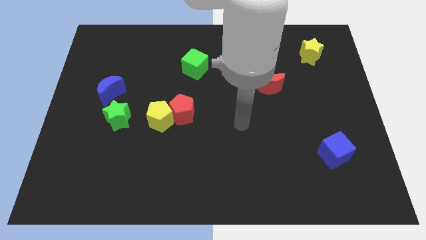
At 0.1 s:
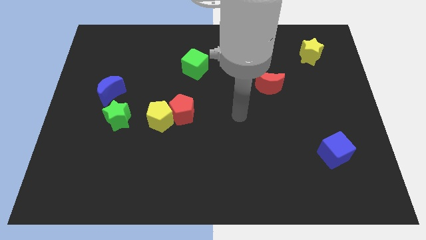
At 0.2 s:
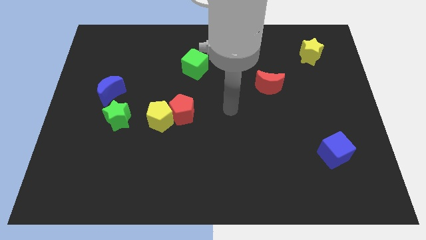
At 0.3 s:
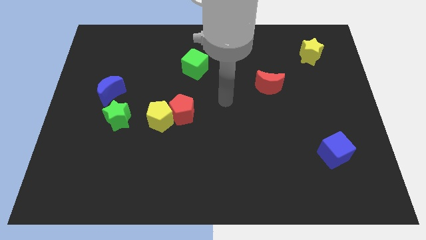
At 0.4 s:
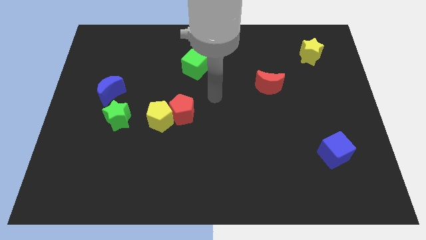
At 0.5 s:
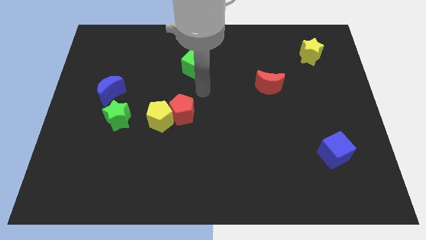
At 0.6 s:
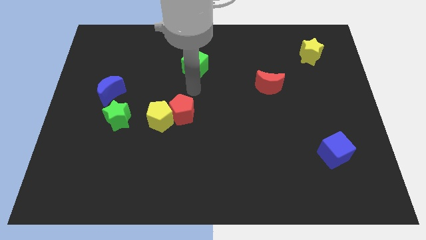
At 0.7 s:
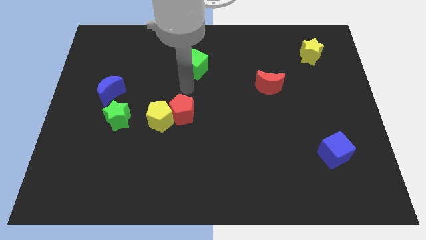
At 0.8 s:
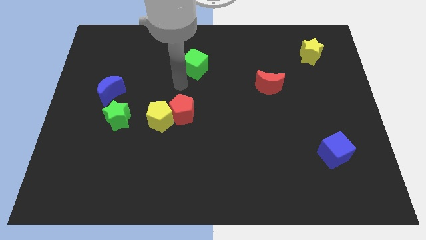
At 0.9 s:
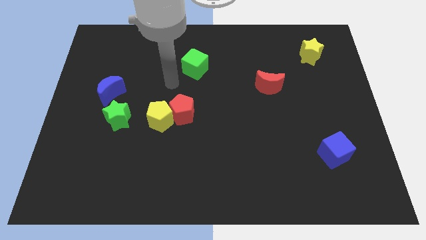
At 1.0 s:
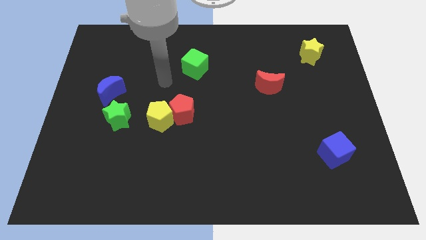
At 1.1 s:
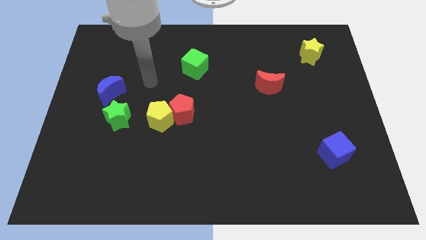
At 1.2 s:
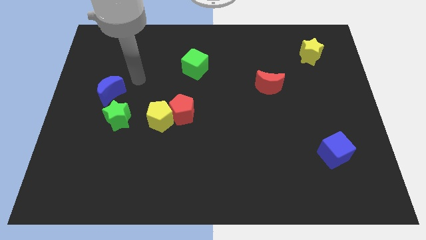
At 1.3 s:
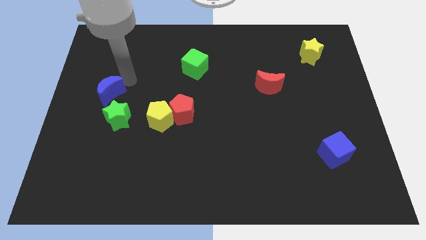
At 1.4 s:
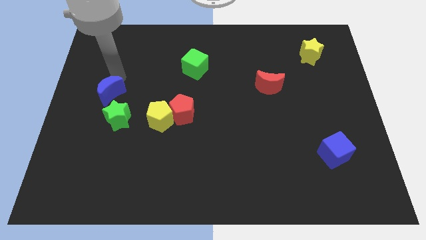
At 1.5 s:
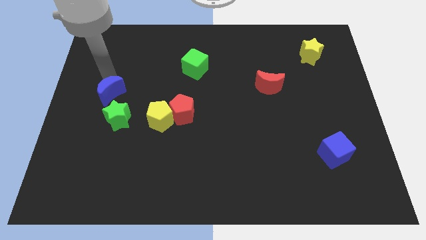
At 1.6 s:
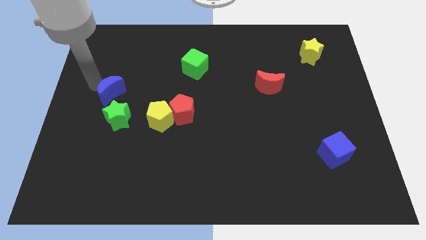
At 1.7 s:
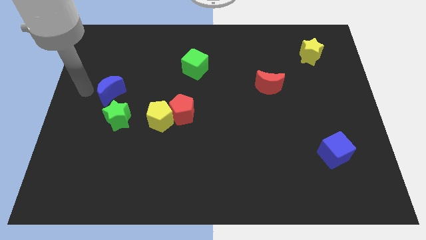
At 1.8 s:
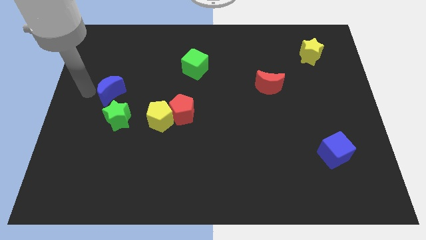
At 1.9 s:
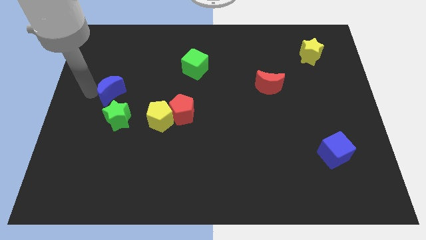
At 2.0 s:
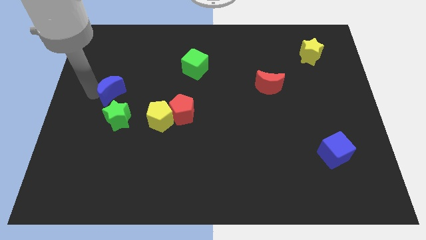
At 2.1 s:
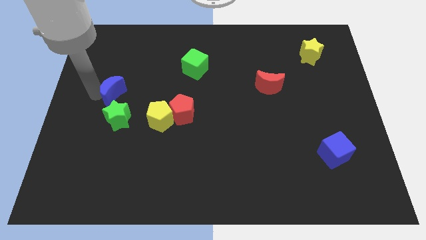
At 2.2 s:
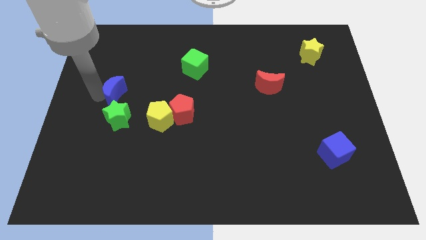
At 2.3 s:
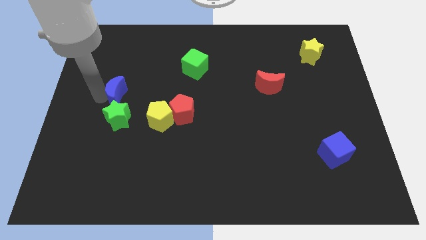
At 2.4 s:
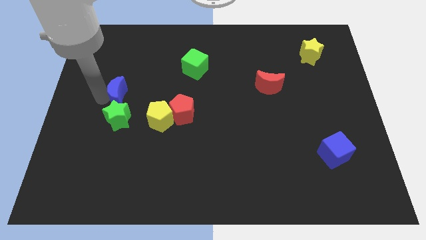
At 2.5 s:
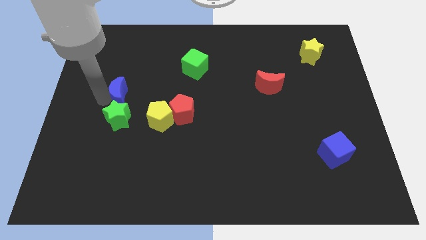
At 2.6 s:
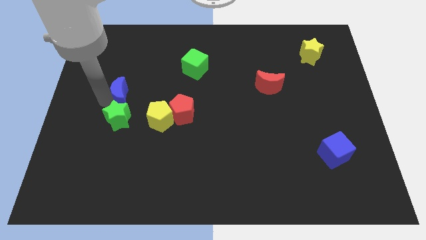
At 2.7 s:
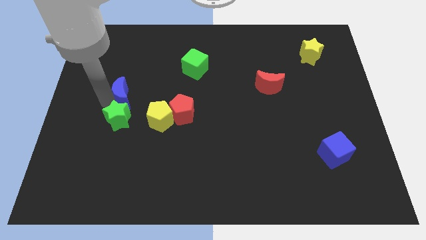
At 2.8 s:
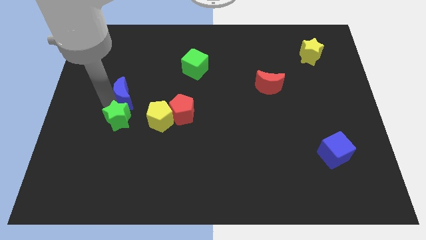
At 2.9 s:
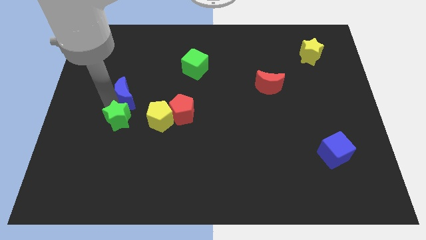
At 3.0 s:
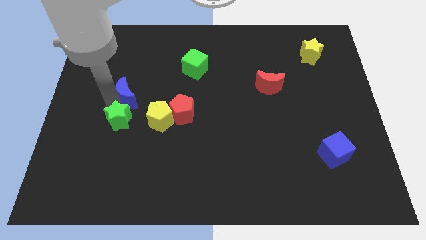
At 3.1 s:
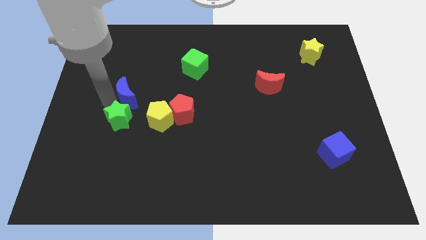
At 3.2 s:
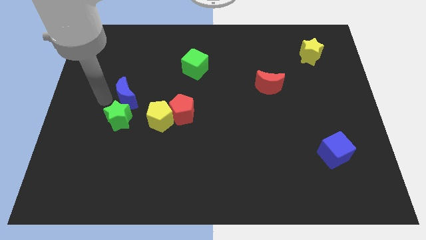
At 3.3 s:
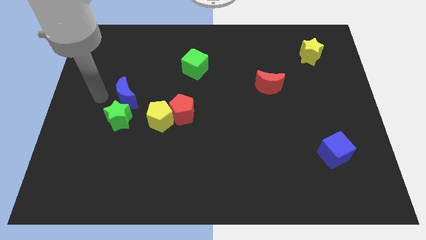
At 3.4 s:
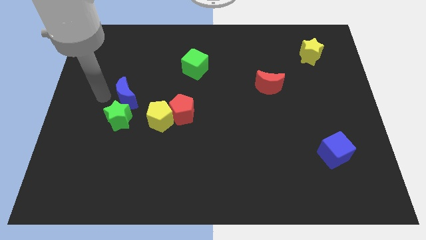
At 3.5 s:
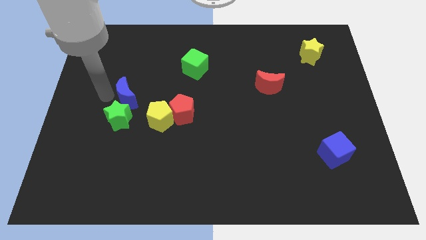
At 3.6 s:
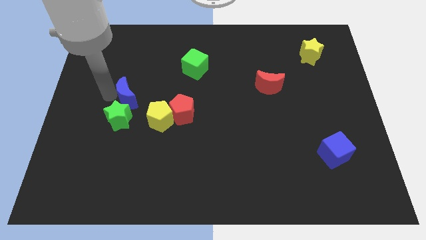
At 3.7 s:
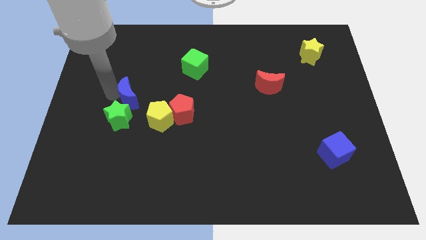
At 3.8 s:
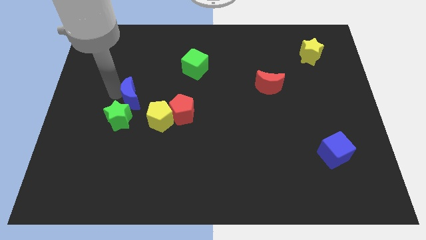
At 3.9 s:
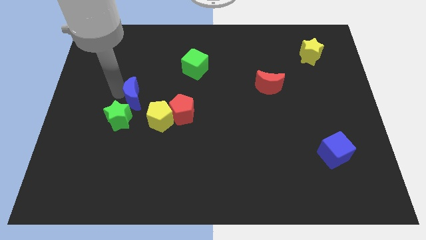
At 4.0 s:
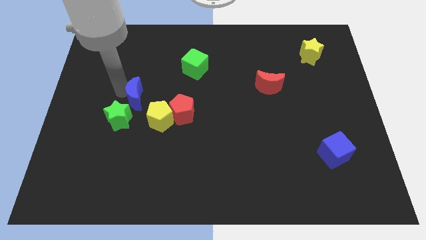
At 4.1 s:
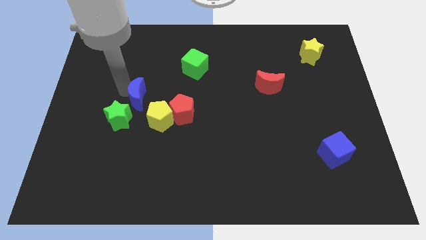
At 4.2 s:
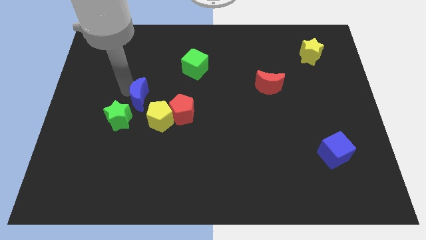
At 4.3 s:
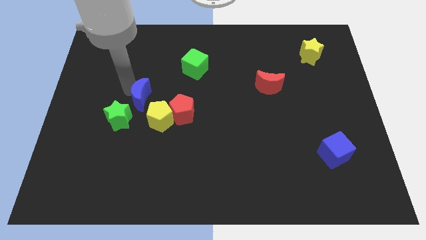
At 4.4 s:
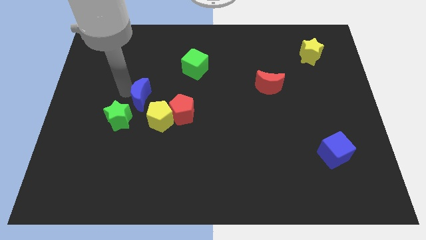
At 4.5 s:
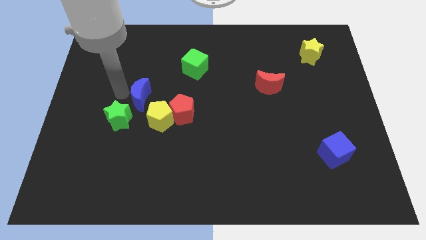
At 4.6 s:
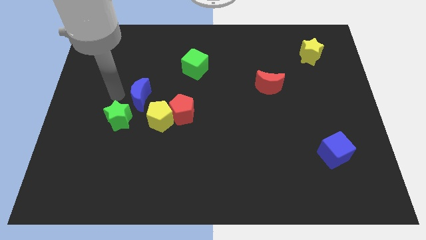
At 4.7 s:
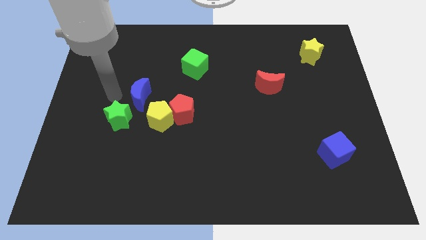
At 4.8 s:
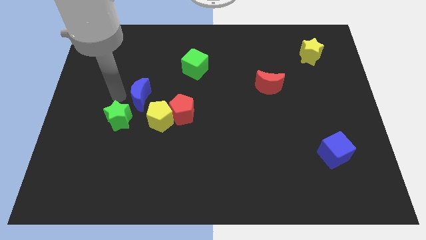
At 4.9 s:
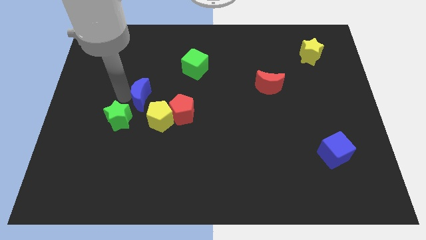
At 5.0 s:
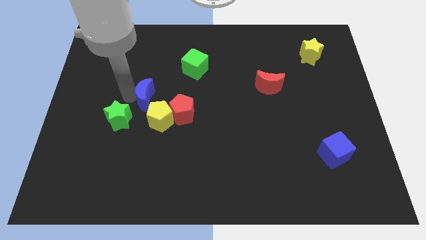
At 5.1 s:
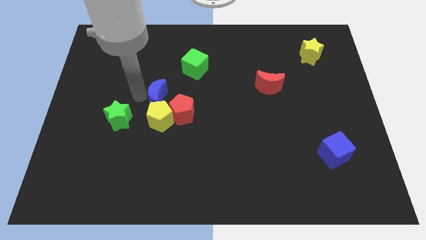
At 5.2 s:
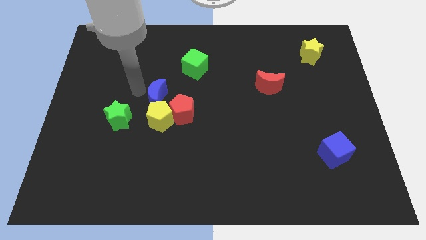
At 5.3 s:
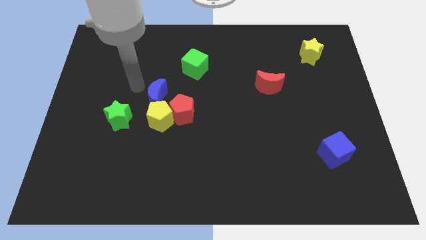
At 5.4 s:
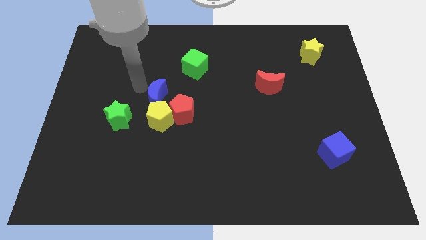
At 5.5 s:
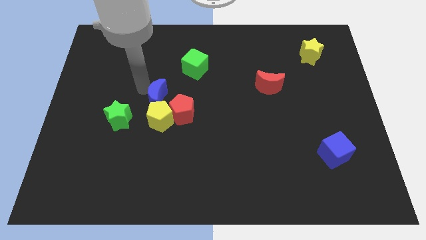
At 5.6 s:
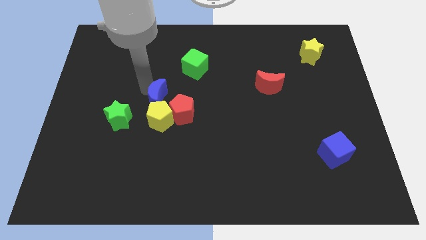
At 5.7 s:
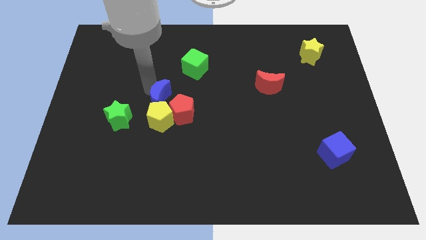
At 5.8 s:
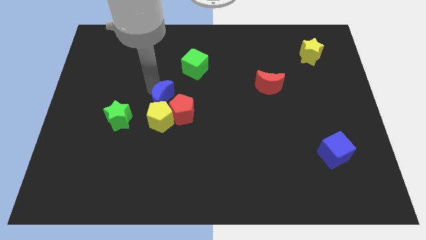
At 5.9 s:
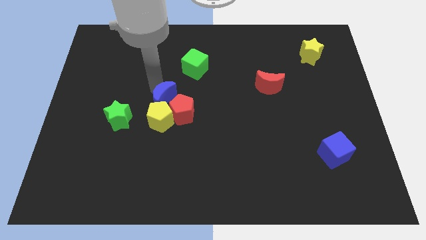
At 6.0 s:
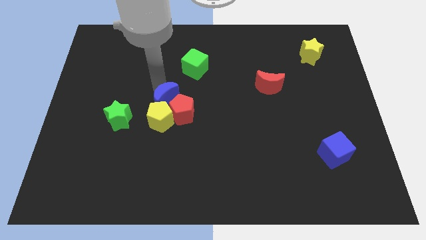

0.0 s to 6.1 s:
move the blue moon towards the red pentagon
